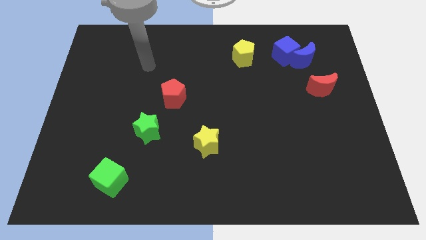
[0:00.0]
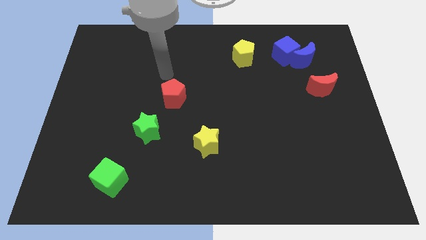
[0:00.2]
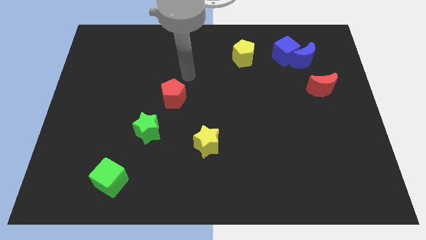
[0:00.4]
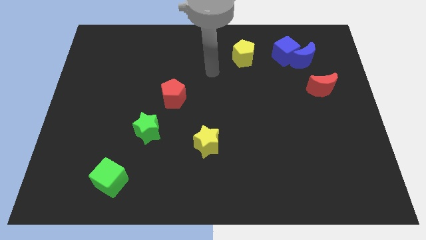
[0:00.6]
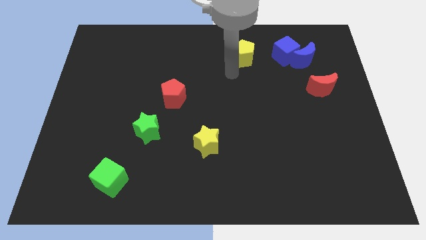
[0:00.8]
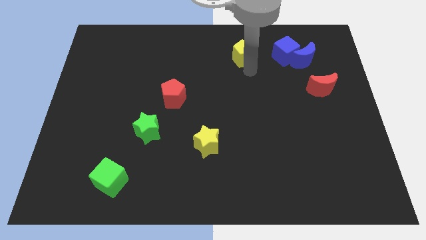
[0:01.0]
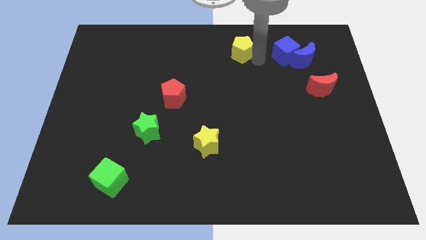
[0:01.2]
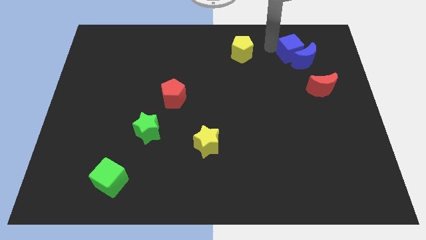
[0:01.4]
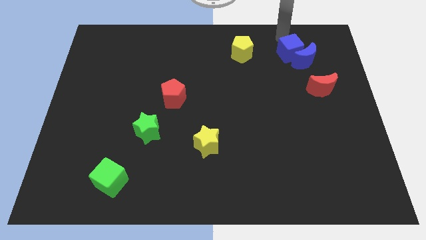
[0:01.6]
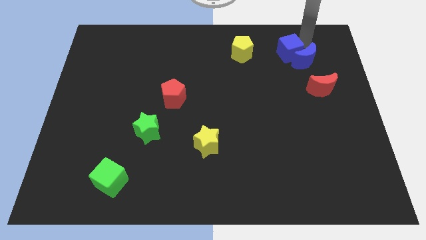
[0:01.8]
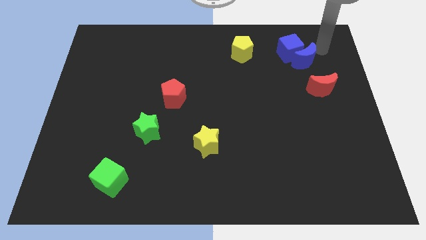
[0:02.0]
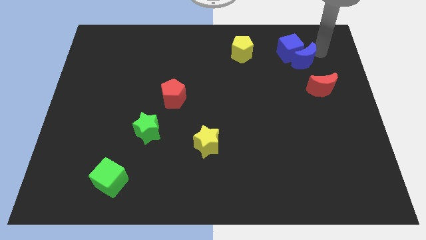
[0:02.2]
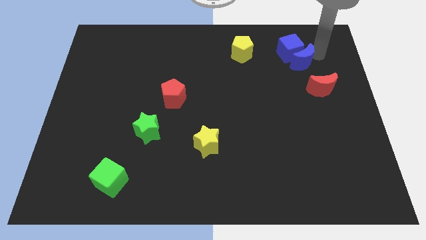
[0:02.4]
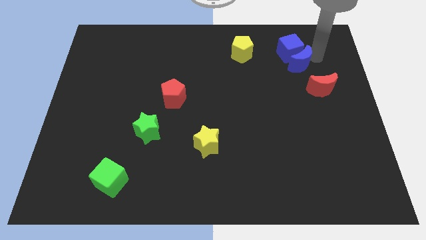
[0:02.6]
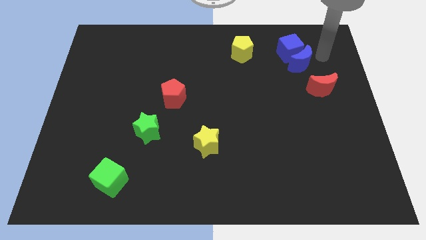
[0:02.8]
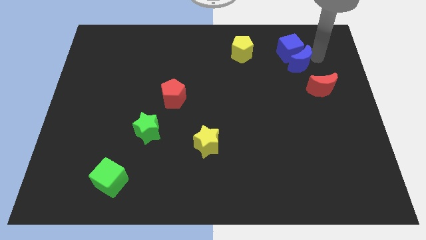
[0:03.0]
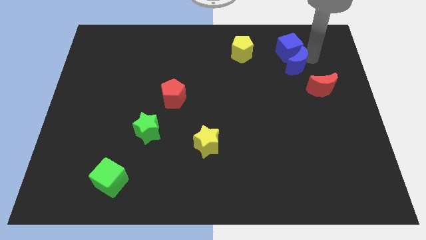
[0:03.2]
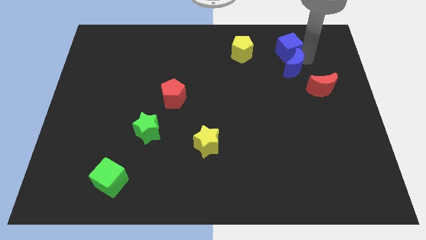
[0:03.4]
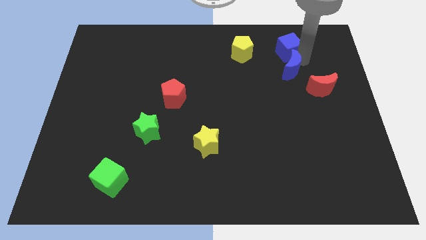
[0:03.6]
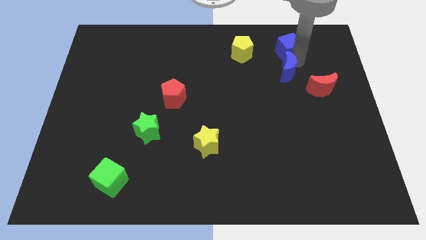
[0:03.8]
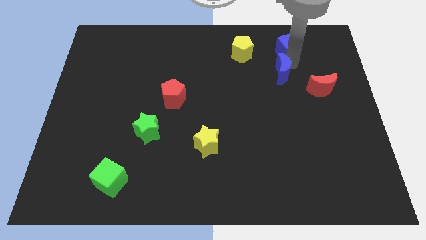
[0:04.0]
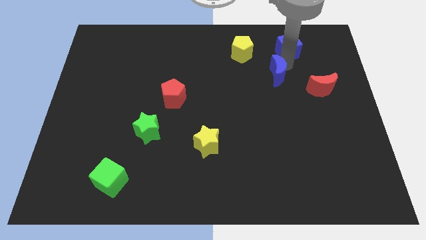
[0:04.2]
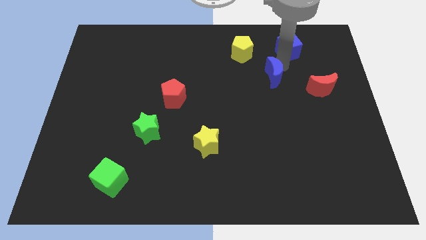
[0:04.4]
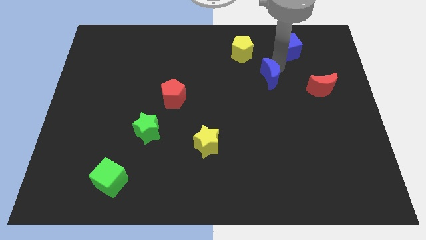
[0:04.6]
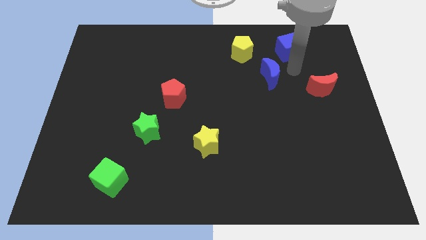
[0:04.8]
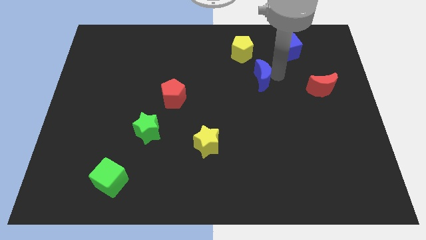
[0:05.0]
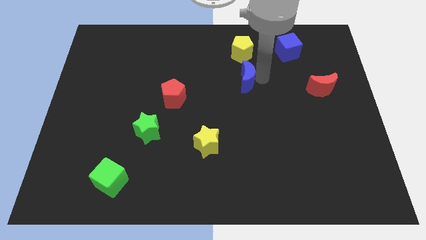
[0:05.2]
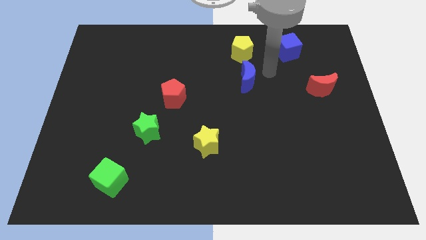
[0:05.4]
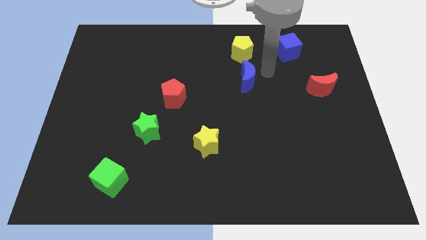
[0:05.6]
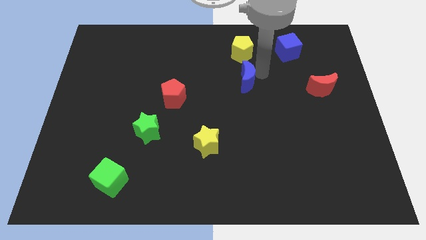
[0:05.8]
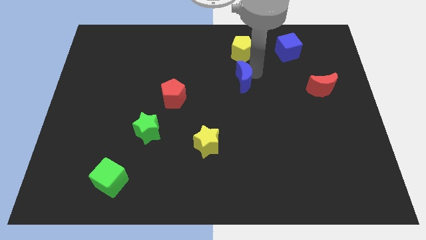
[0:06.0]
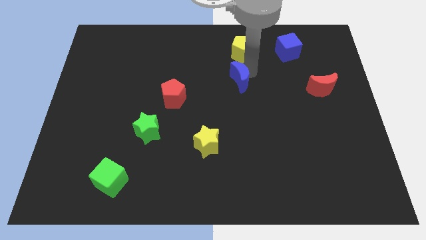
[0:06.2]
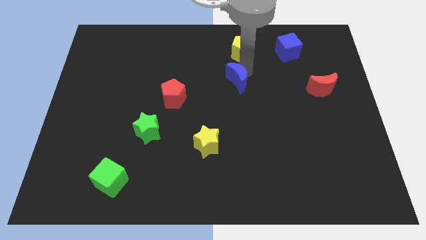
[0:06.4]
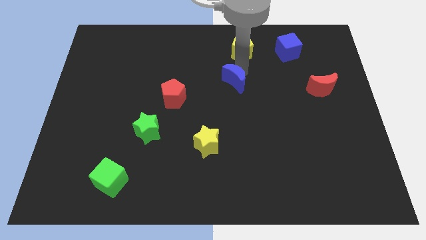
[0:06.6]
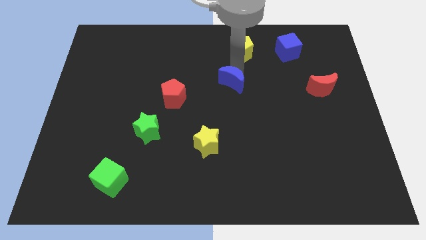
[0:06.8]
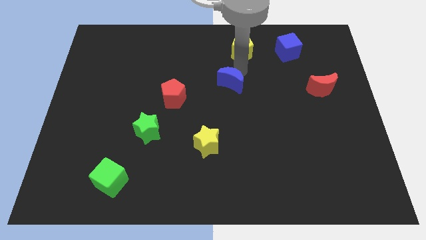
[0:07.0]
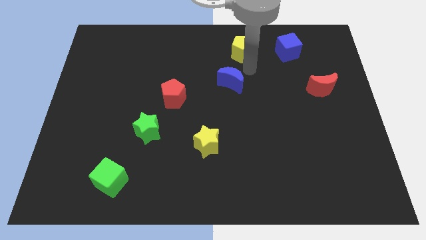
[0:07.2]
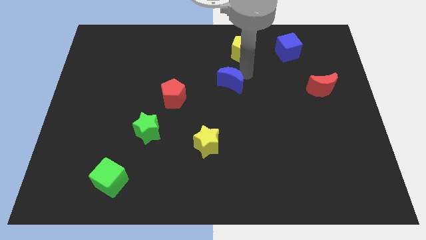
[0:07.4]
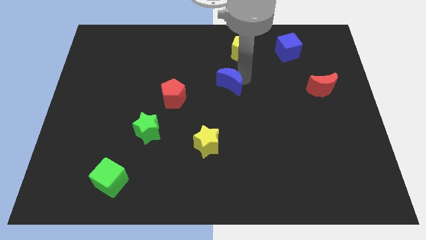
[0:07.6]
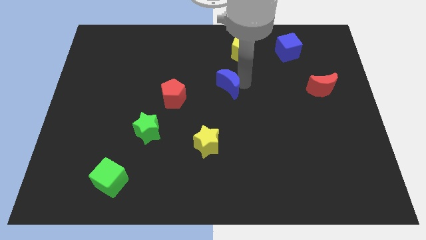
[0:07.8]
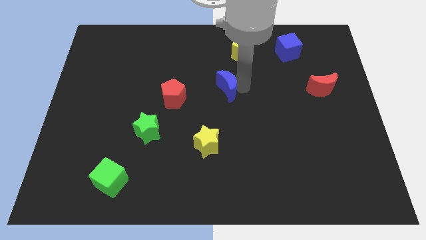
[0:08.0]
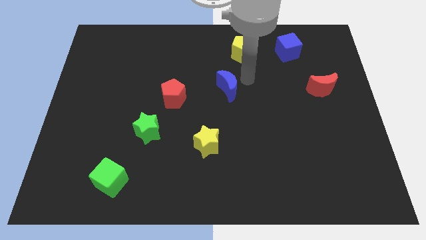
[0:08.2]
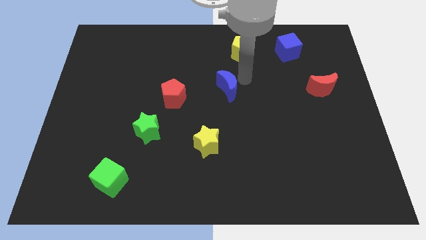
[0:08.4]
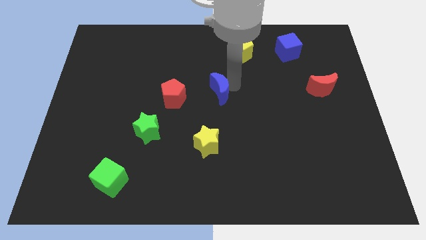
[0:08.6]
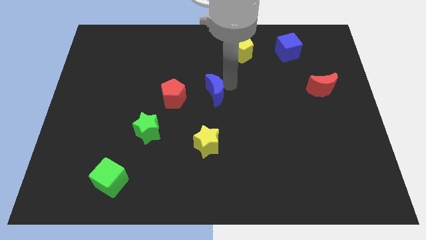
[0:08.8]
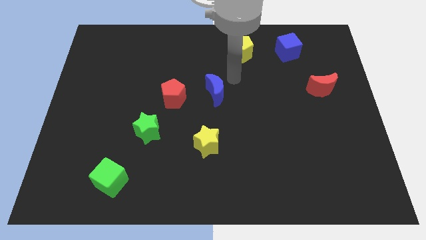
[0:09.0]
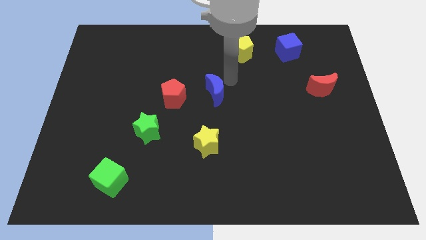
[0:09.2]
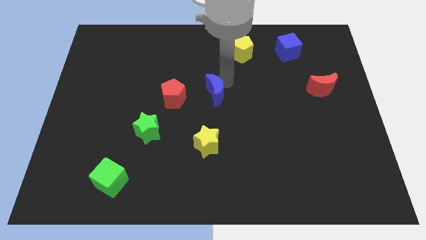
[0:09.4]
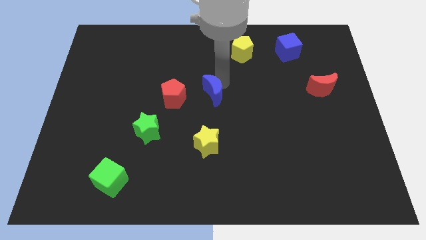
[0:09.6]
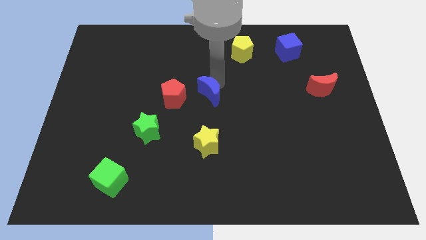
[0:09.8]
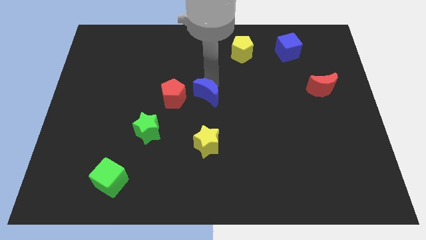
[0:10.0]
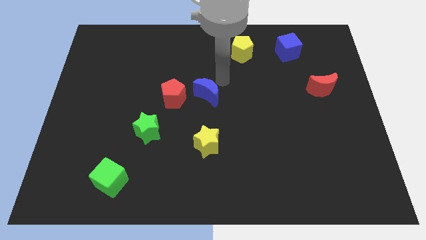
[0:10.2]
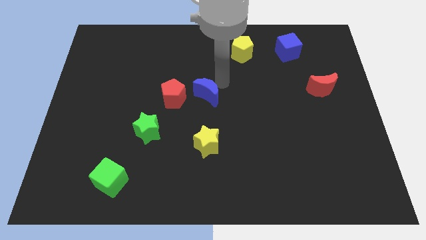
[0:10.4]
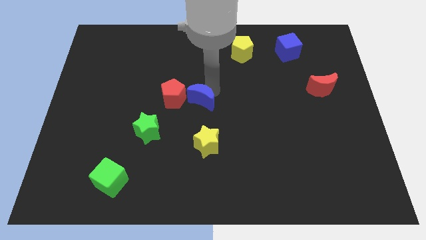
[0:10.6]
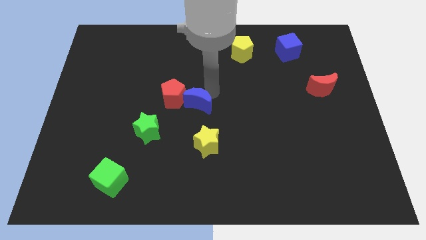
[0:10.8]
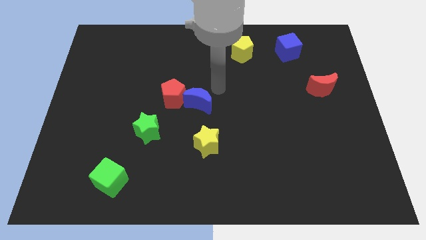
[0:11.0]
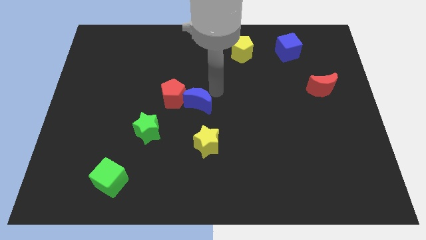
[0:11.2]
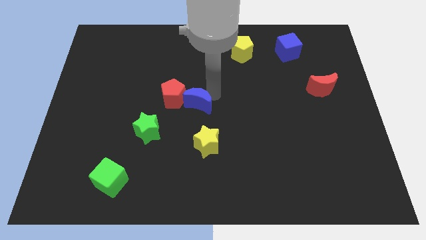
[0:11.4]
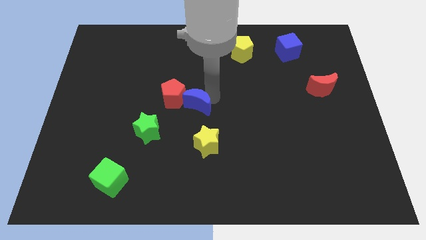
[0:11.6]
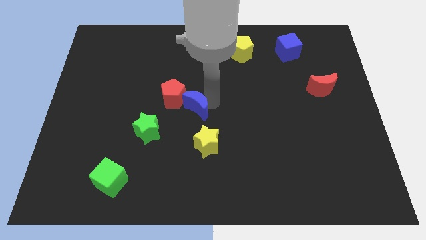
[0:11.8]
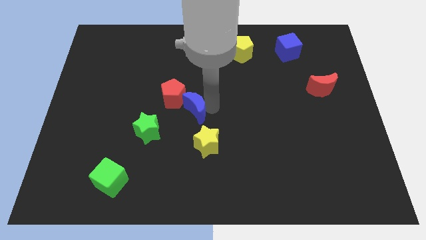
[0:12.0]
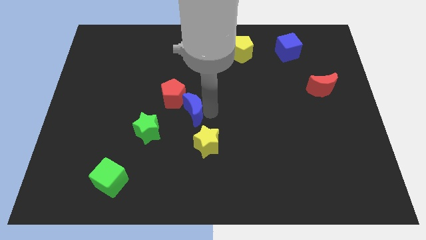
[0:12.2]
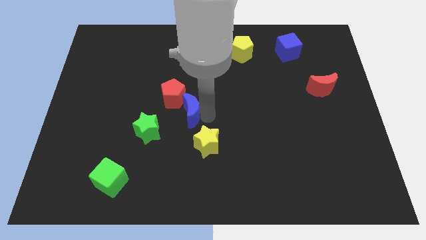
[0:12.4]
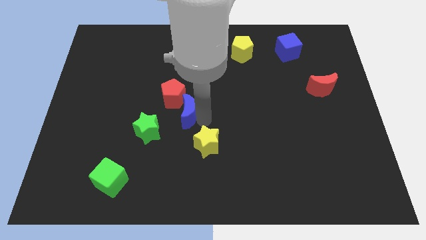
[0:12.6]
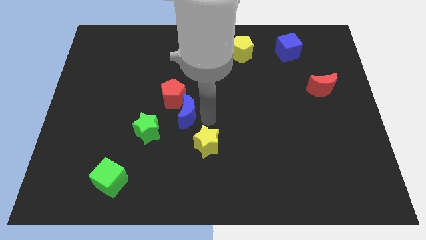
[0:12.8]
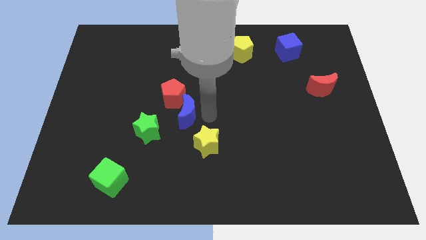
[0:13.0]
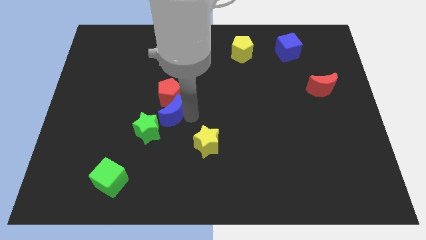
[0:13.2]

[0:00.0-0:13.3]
slide the blue moon diagonally down and to the left of the red pentagon
